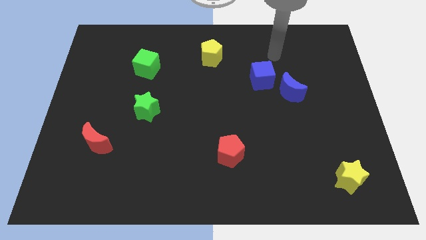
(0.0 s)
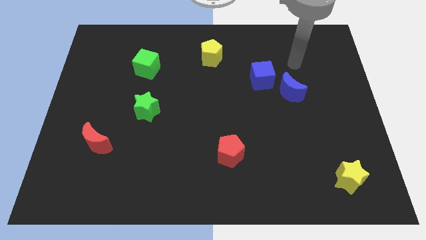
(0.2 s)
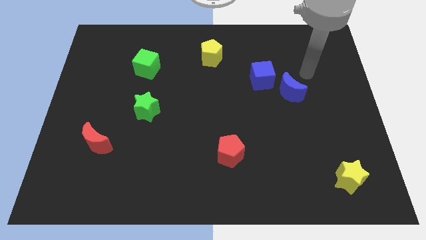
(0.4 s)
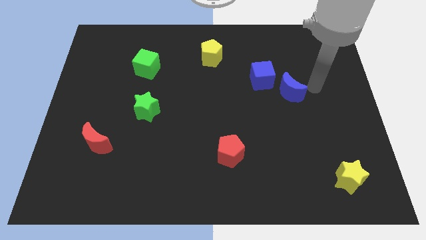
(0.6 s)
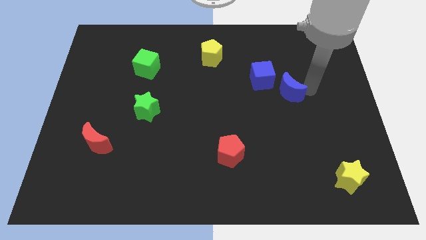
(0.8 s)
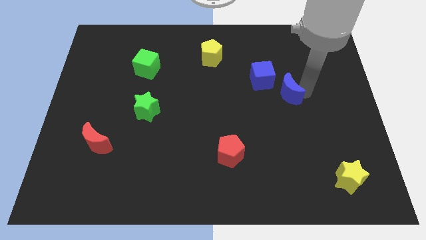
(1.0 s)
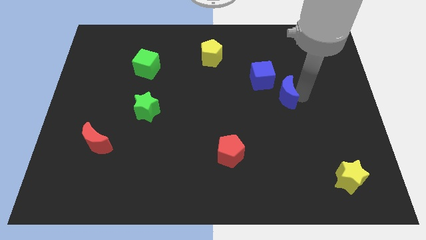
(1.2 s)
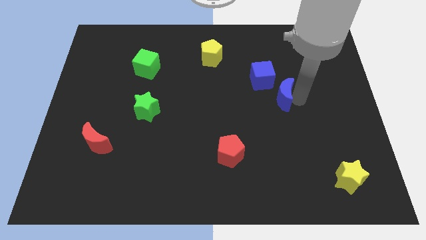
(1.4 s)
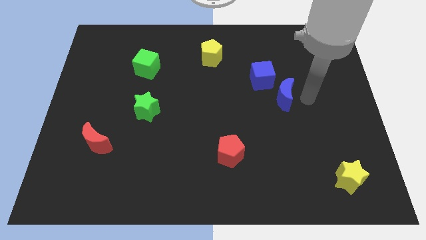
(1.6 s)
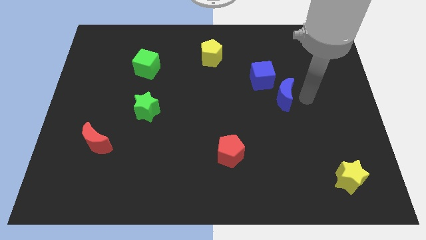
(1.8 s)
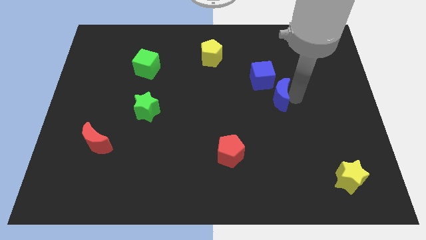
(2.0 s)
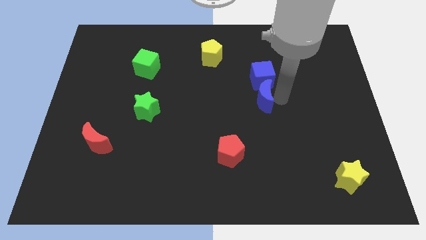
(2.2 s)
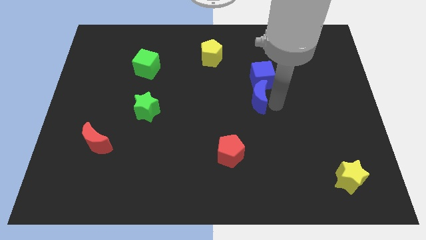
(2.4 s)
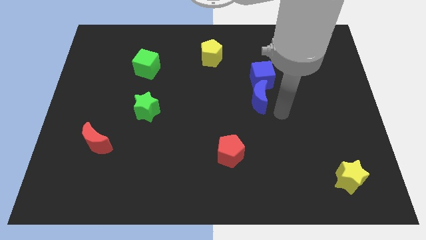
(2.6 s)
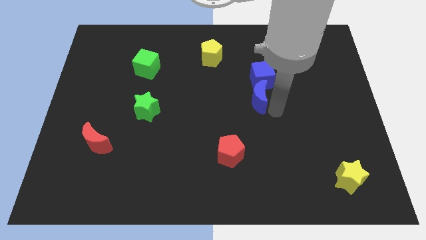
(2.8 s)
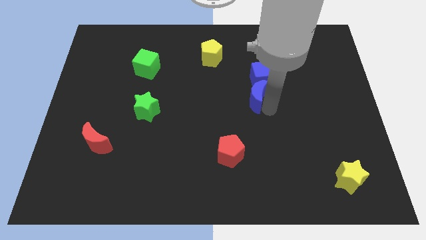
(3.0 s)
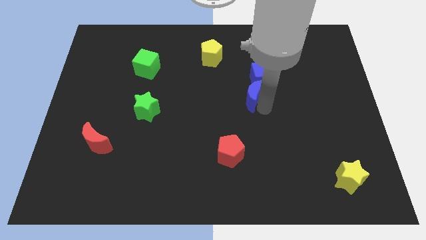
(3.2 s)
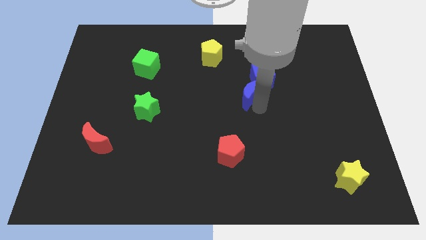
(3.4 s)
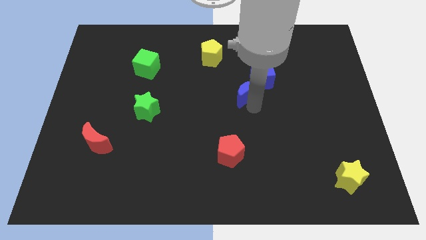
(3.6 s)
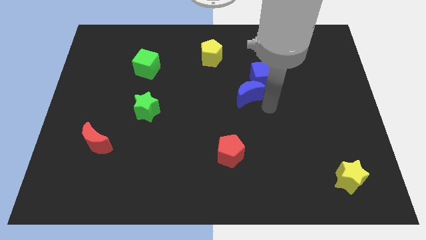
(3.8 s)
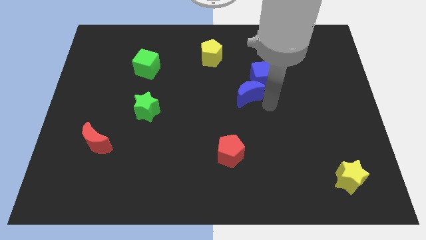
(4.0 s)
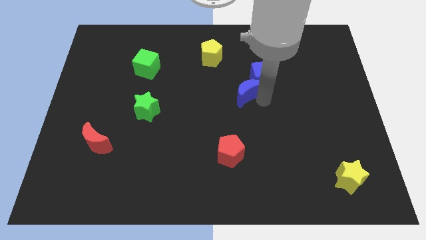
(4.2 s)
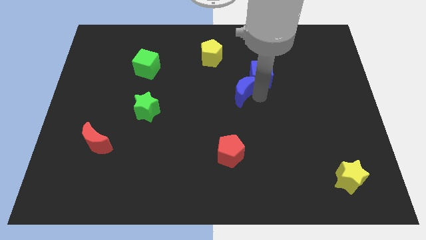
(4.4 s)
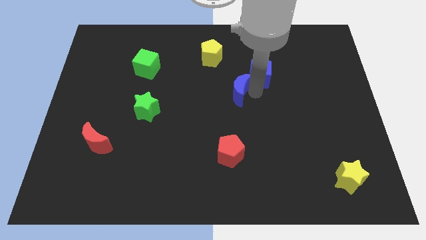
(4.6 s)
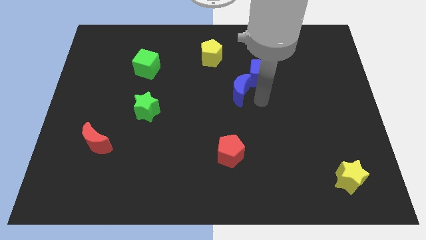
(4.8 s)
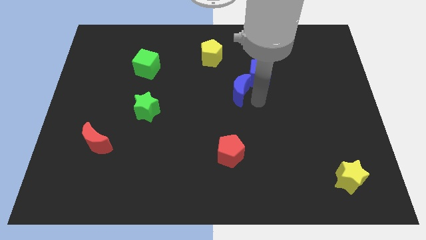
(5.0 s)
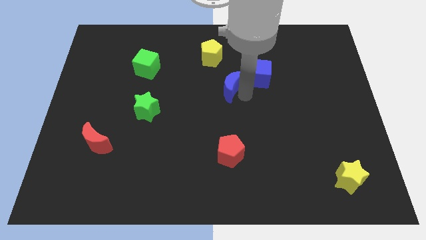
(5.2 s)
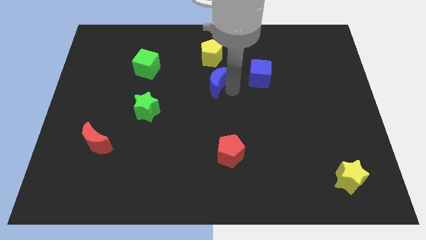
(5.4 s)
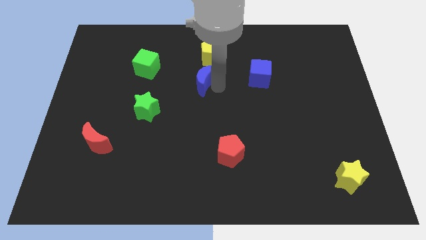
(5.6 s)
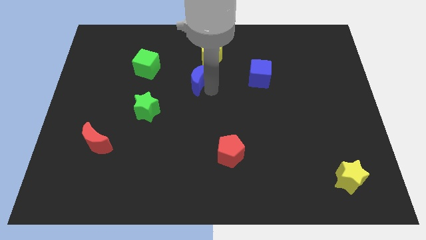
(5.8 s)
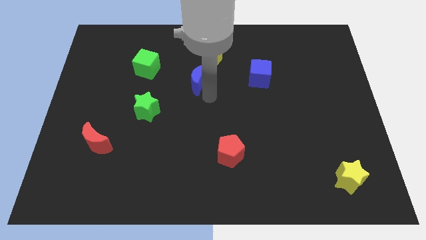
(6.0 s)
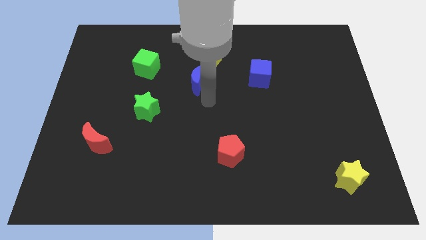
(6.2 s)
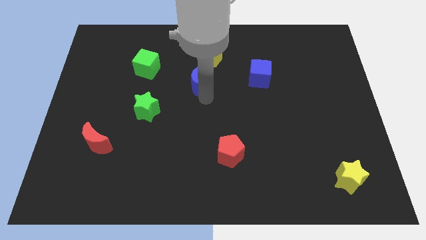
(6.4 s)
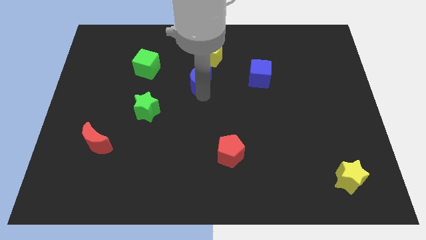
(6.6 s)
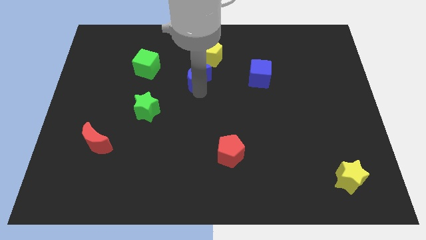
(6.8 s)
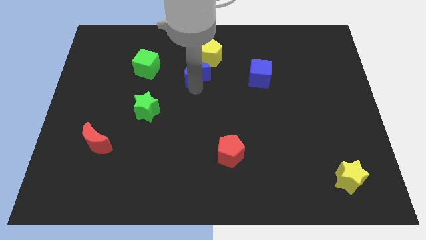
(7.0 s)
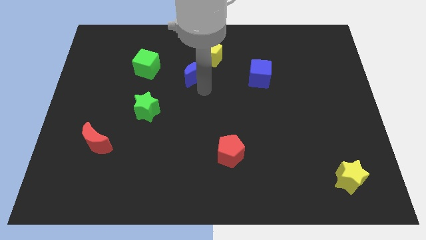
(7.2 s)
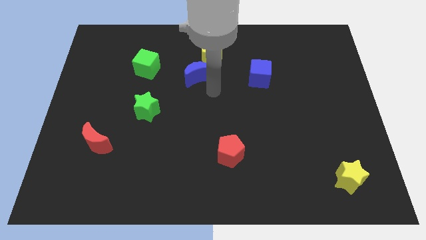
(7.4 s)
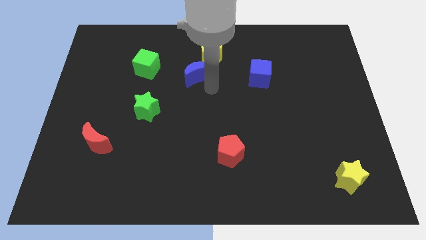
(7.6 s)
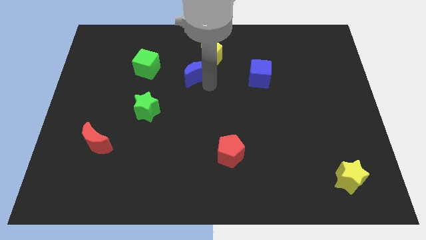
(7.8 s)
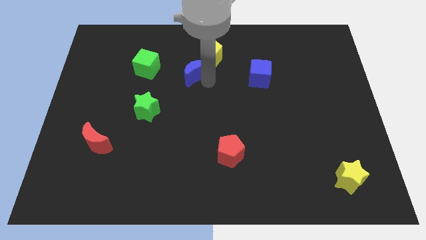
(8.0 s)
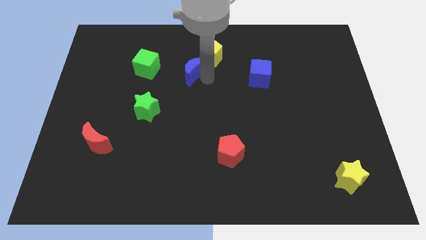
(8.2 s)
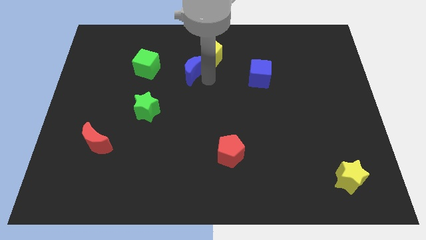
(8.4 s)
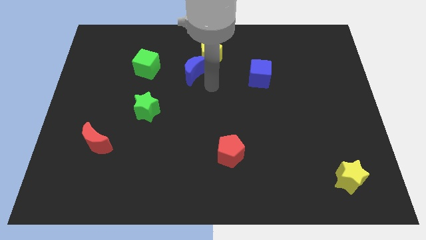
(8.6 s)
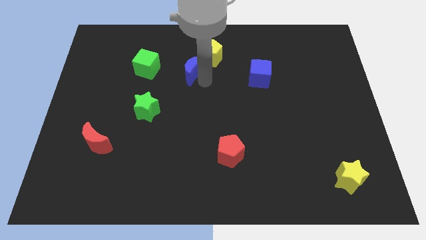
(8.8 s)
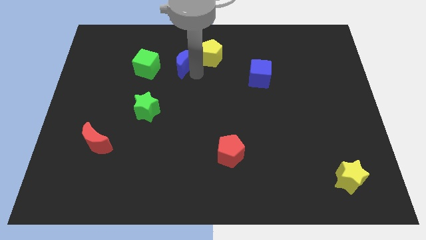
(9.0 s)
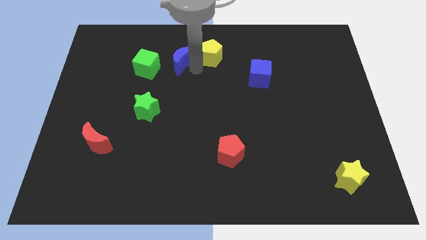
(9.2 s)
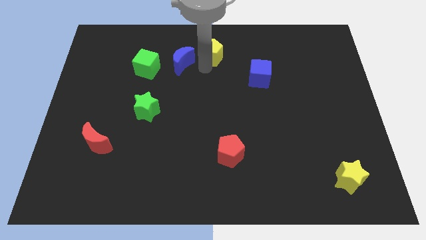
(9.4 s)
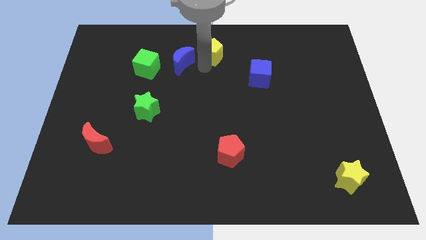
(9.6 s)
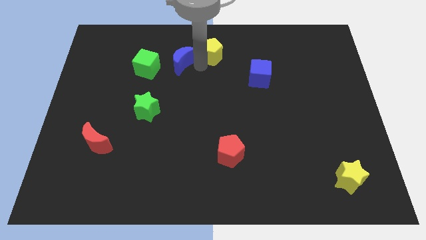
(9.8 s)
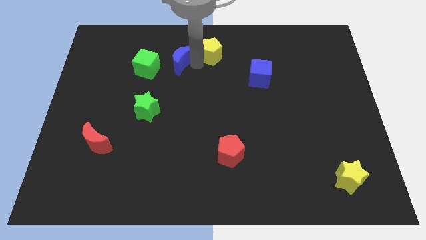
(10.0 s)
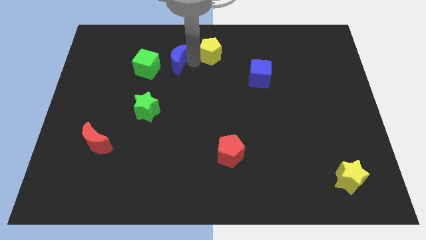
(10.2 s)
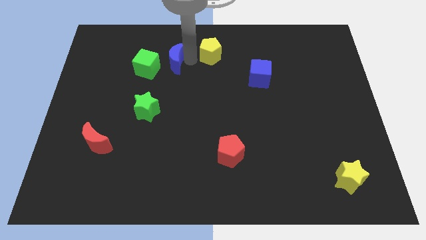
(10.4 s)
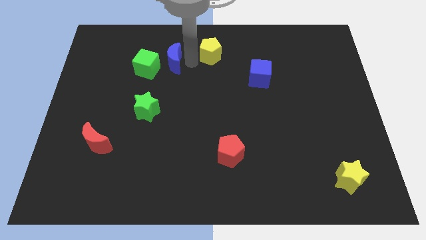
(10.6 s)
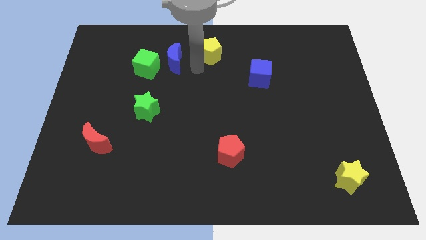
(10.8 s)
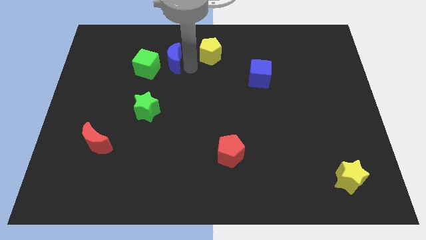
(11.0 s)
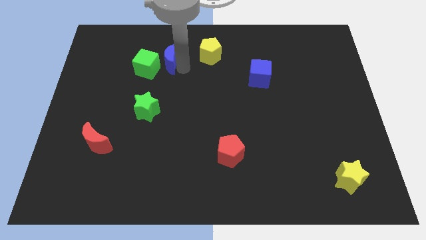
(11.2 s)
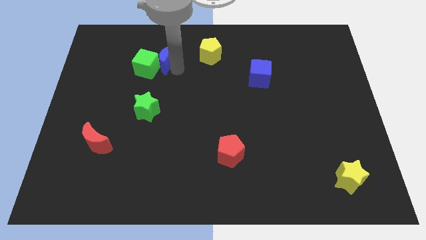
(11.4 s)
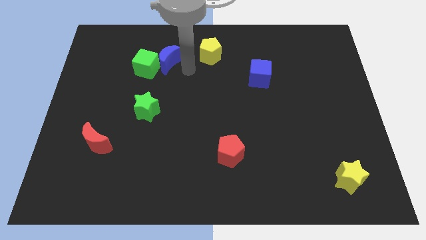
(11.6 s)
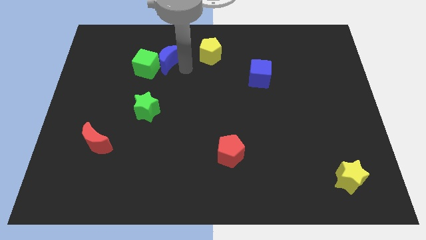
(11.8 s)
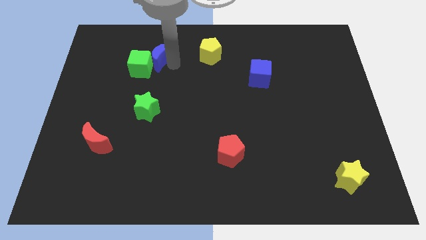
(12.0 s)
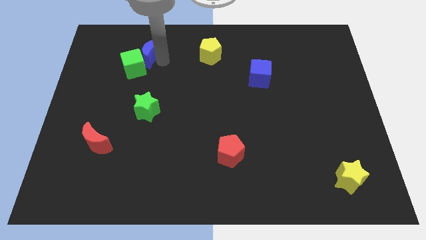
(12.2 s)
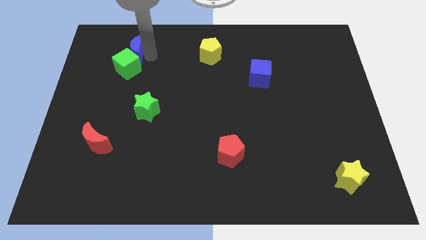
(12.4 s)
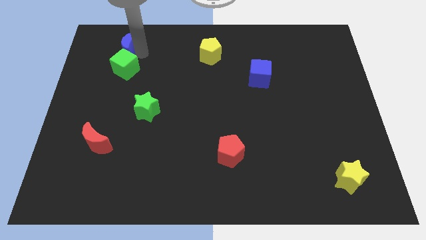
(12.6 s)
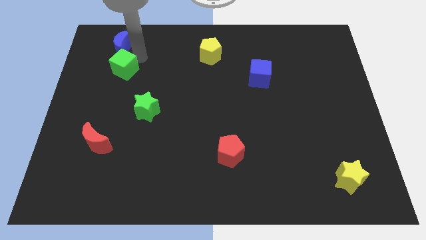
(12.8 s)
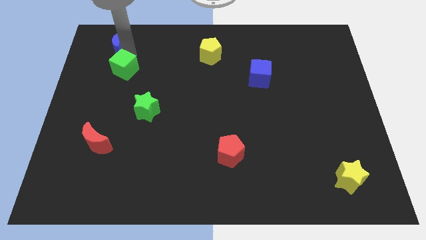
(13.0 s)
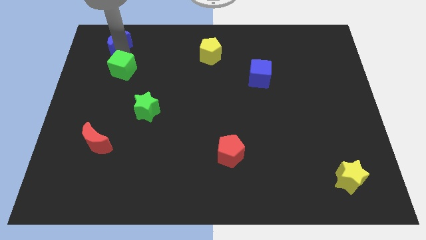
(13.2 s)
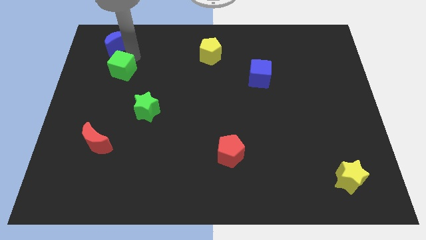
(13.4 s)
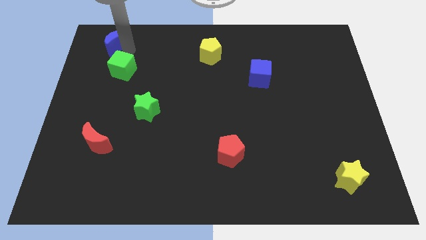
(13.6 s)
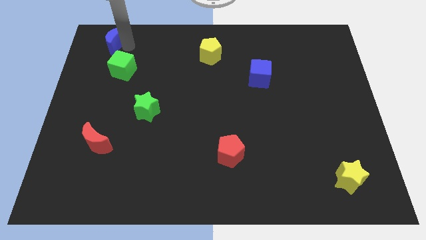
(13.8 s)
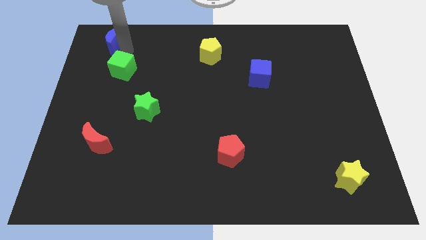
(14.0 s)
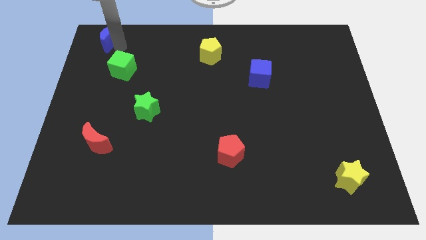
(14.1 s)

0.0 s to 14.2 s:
slide the blue moon to the top left of the board
